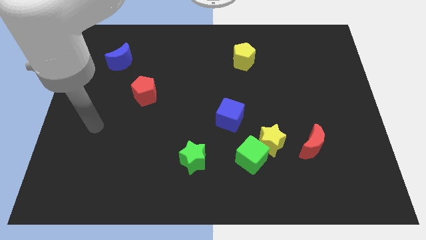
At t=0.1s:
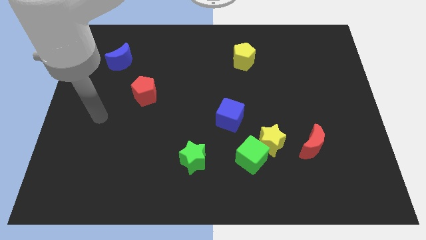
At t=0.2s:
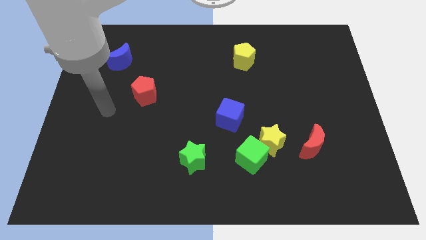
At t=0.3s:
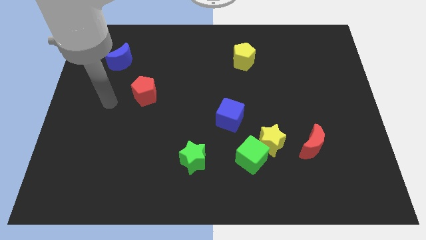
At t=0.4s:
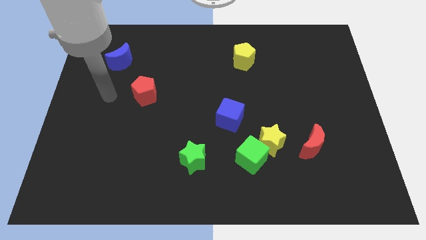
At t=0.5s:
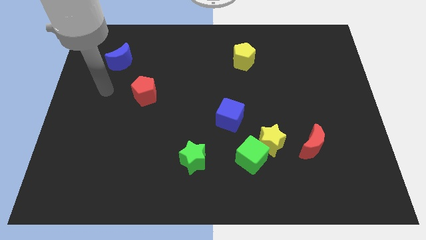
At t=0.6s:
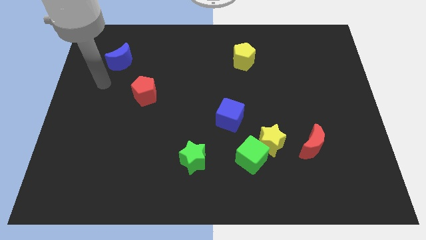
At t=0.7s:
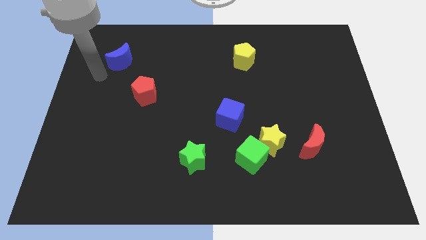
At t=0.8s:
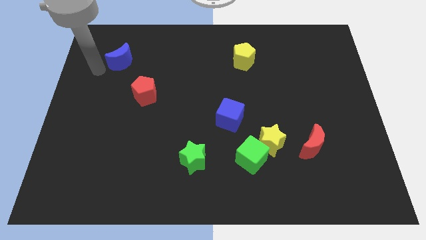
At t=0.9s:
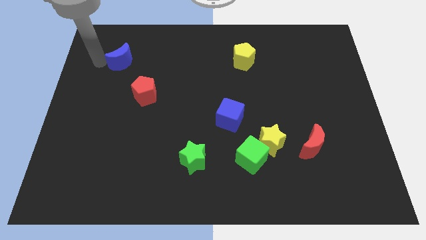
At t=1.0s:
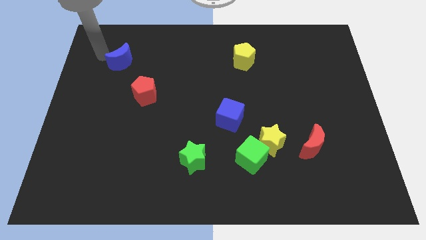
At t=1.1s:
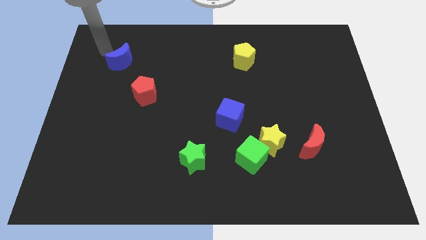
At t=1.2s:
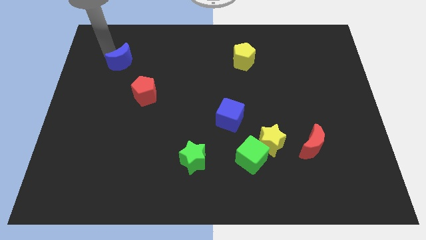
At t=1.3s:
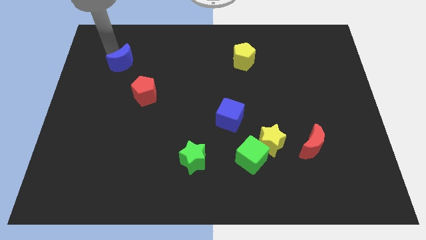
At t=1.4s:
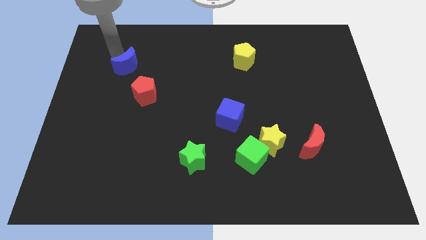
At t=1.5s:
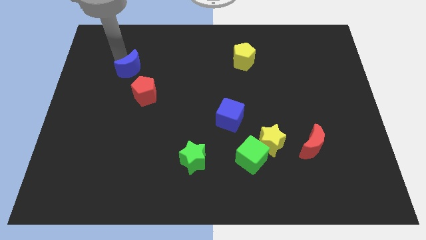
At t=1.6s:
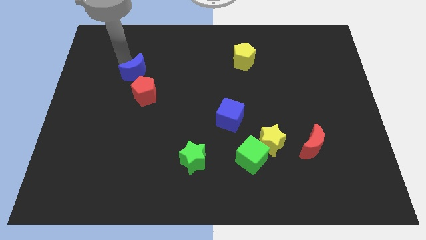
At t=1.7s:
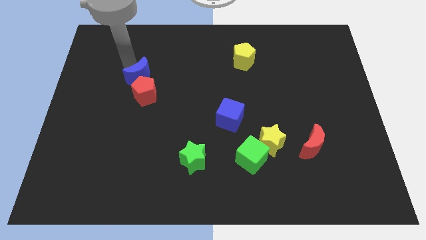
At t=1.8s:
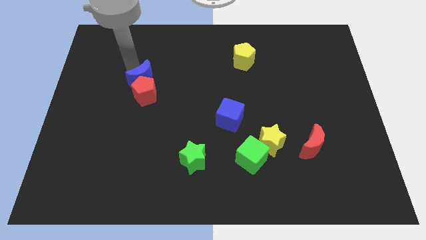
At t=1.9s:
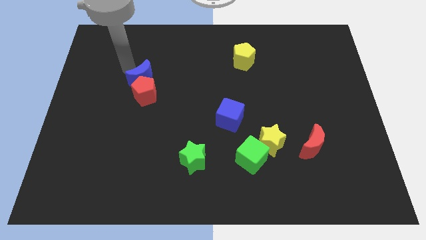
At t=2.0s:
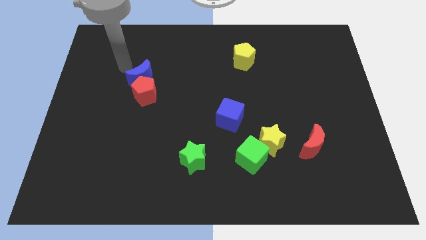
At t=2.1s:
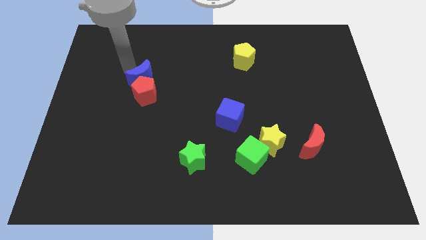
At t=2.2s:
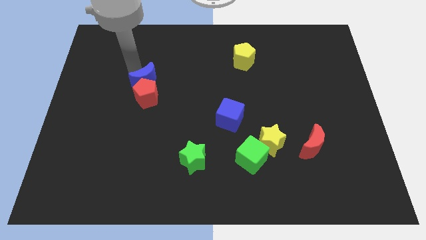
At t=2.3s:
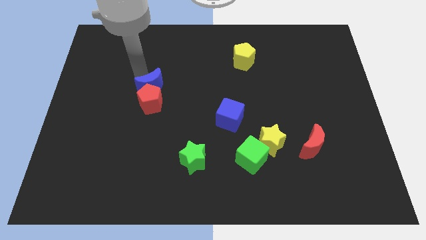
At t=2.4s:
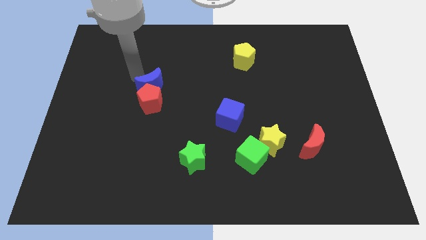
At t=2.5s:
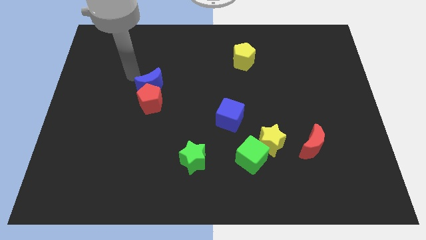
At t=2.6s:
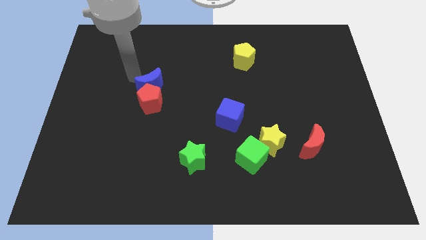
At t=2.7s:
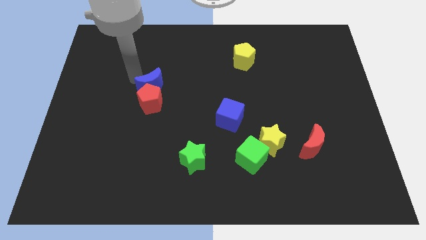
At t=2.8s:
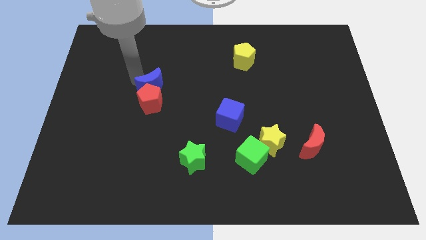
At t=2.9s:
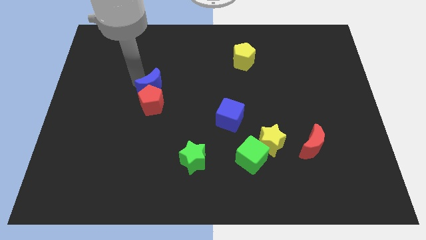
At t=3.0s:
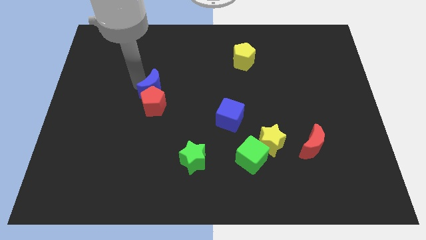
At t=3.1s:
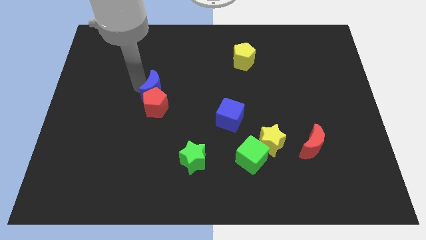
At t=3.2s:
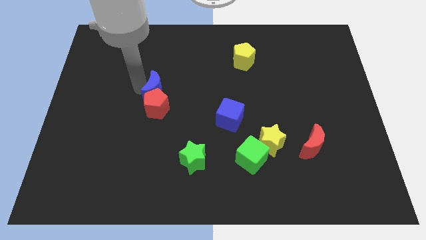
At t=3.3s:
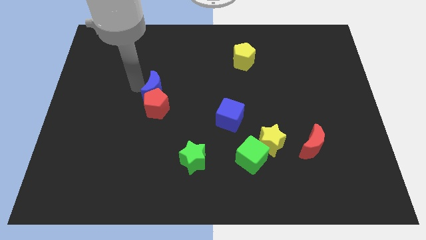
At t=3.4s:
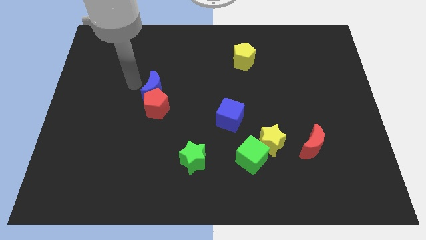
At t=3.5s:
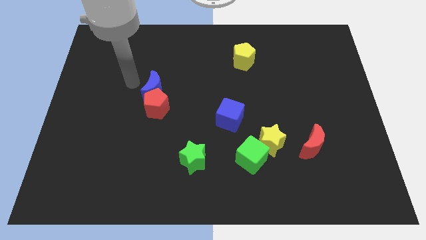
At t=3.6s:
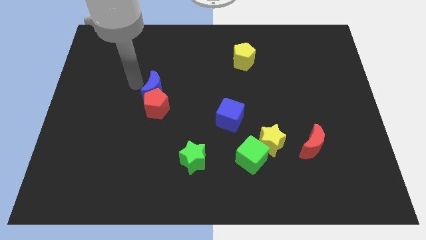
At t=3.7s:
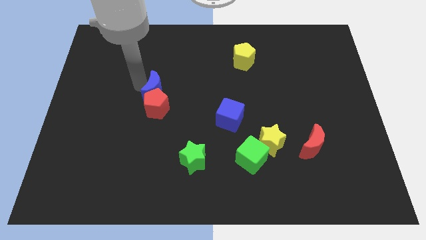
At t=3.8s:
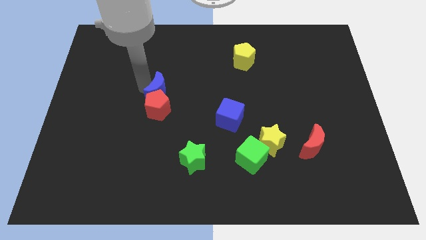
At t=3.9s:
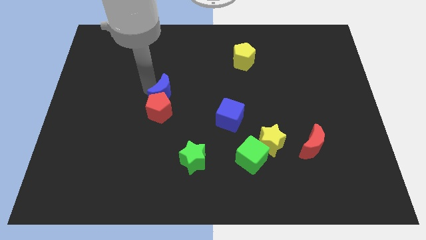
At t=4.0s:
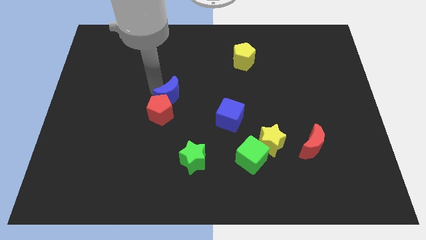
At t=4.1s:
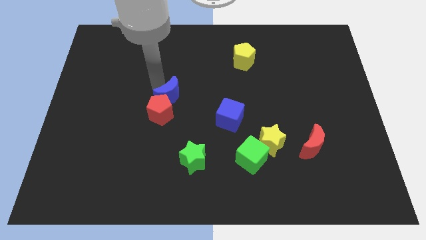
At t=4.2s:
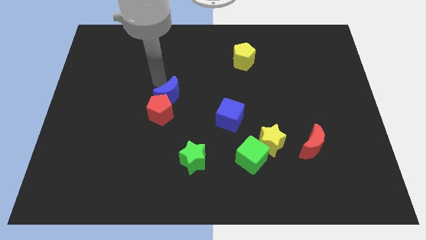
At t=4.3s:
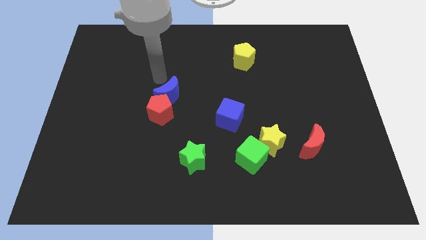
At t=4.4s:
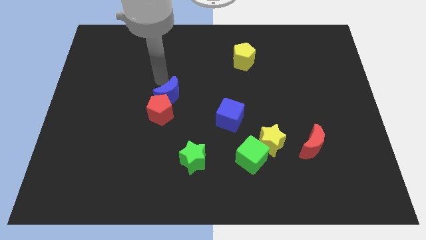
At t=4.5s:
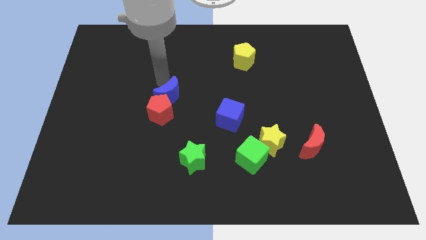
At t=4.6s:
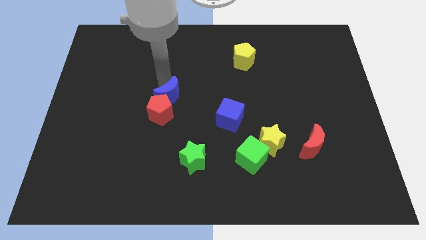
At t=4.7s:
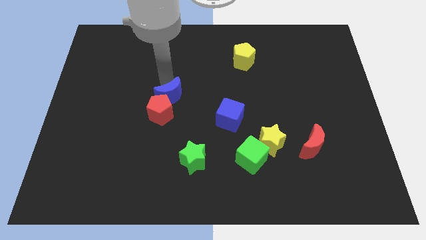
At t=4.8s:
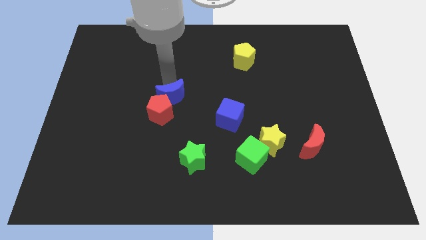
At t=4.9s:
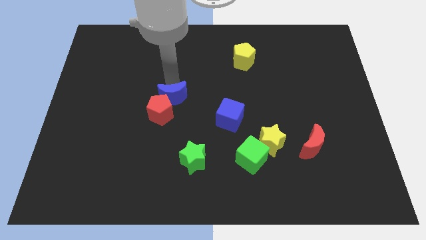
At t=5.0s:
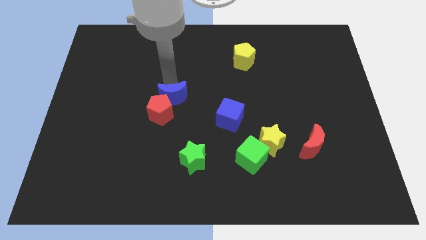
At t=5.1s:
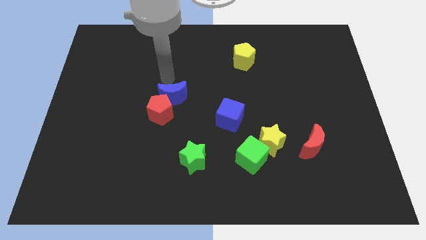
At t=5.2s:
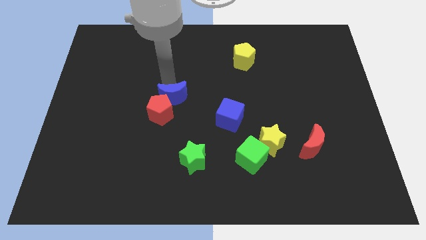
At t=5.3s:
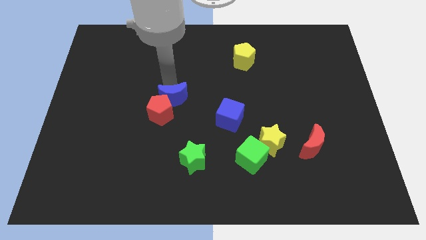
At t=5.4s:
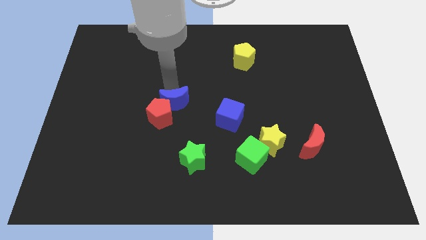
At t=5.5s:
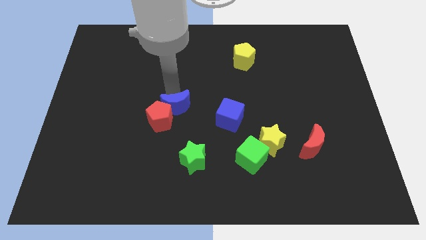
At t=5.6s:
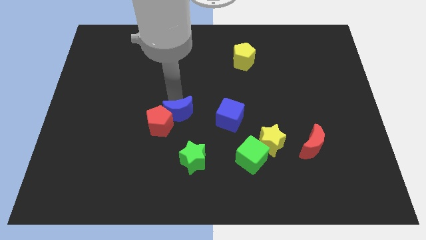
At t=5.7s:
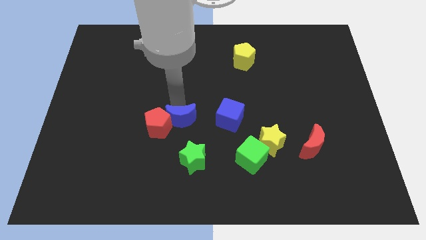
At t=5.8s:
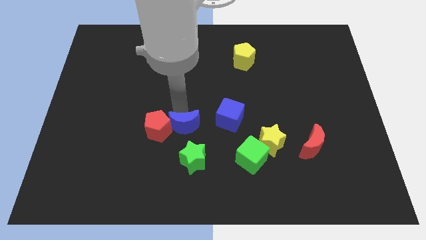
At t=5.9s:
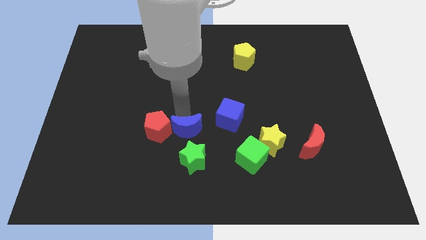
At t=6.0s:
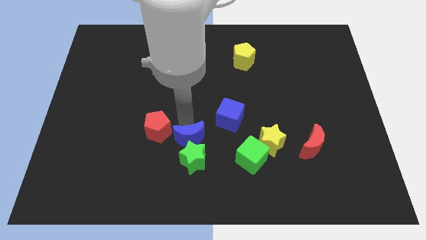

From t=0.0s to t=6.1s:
put the blue moon close to the green star

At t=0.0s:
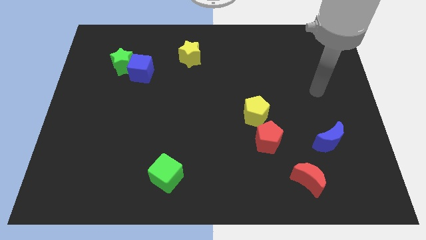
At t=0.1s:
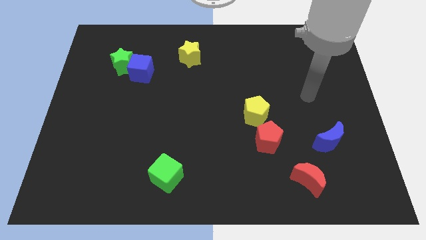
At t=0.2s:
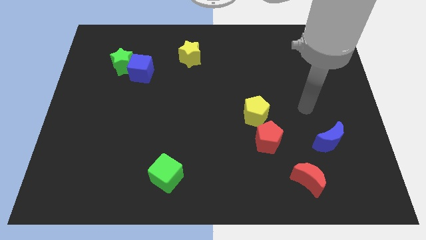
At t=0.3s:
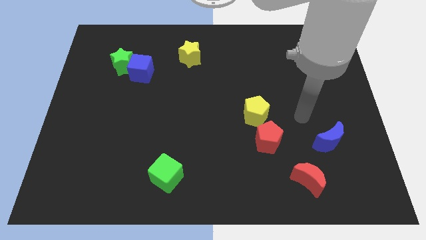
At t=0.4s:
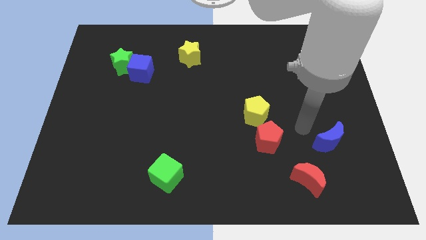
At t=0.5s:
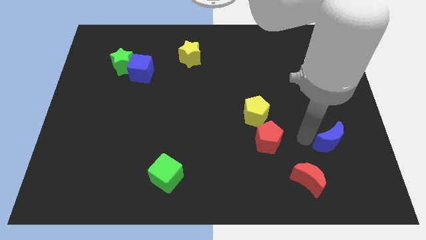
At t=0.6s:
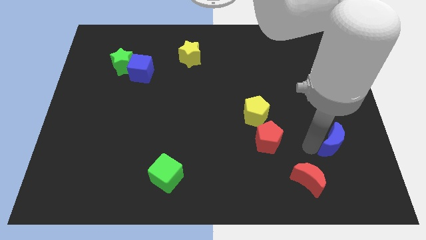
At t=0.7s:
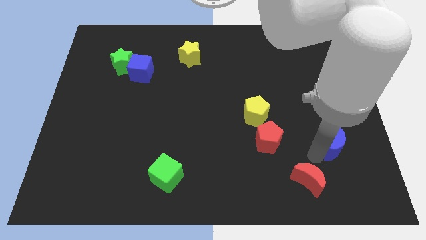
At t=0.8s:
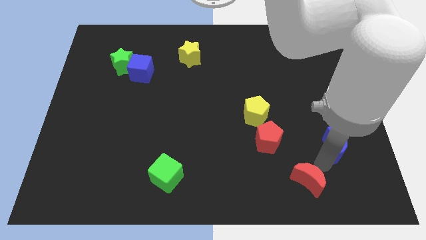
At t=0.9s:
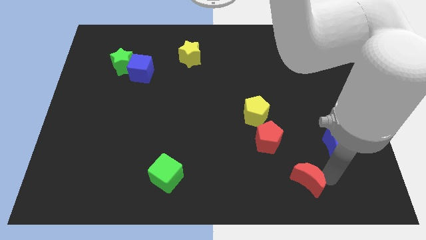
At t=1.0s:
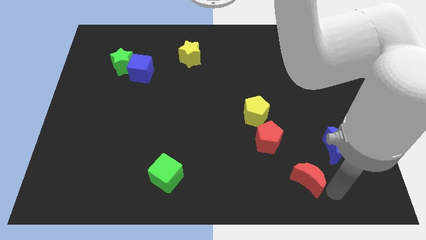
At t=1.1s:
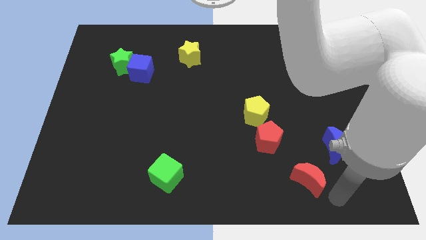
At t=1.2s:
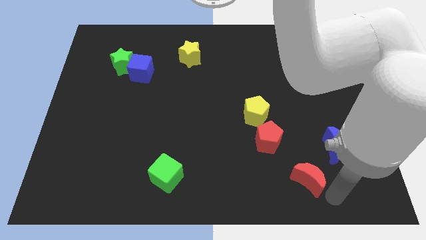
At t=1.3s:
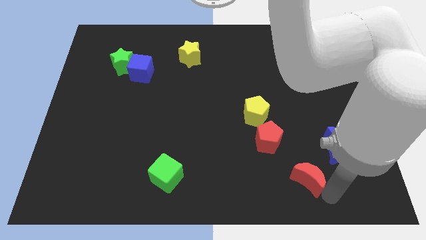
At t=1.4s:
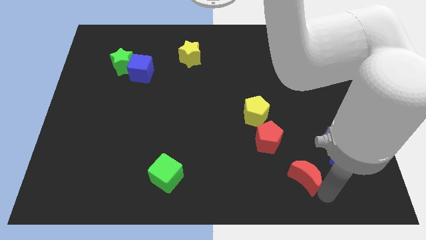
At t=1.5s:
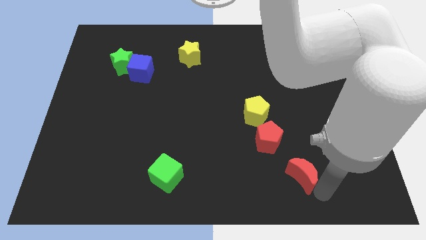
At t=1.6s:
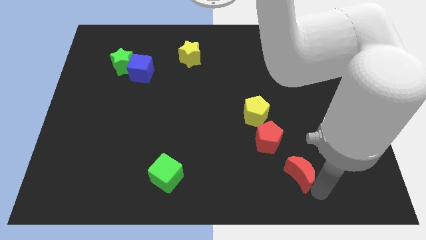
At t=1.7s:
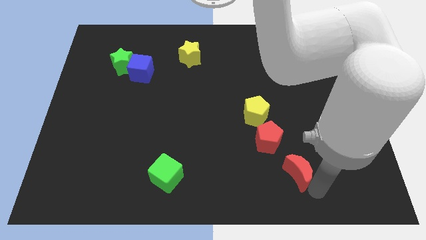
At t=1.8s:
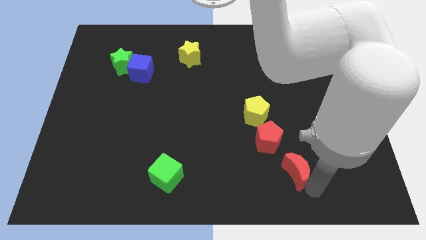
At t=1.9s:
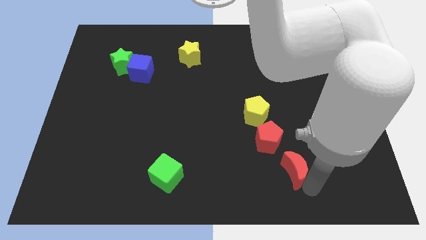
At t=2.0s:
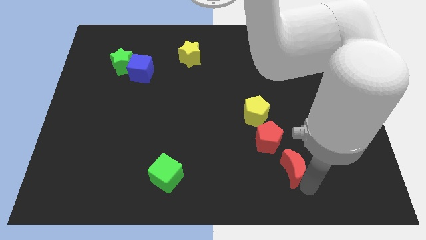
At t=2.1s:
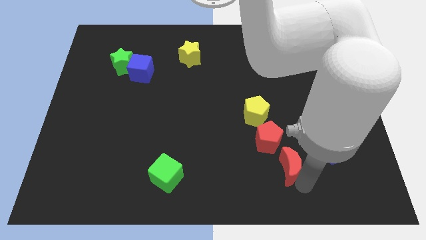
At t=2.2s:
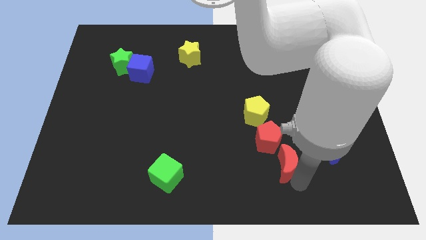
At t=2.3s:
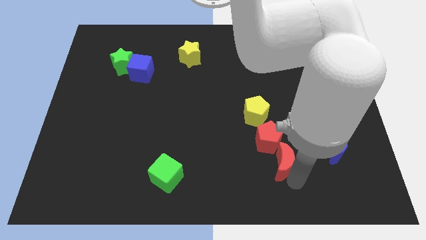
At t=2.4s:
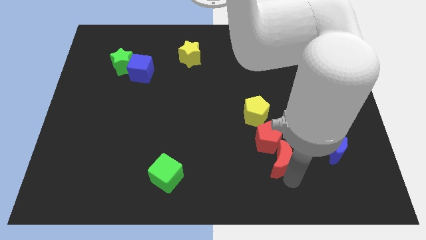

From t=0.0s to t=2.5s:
put the red moon towards the red pentagon
